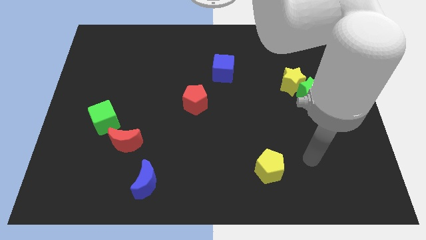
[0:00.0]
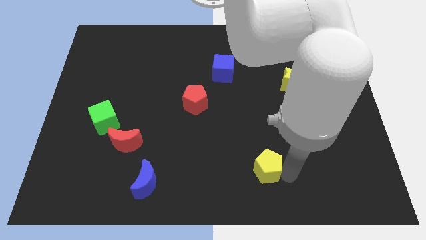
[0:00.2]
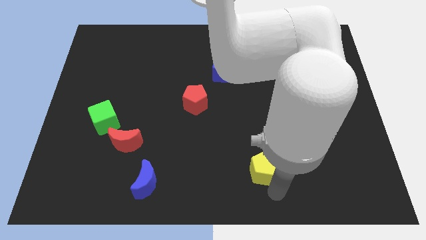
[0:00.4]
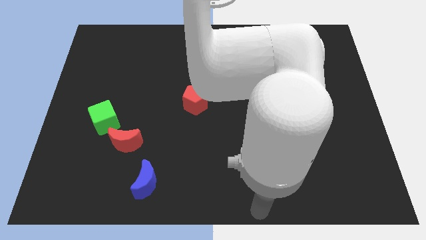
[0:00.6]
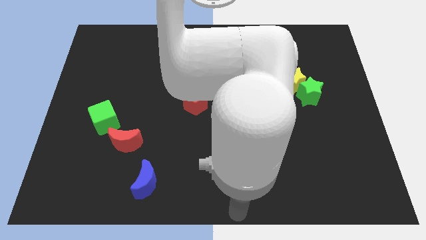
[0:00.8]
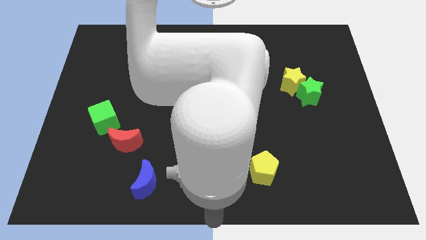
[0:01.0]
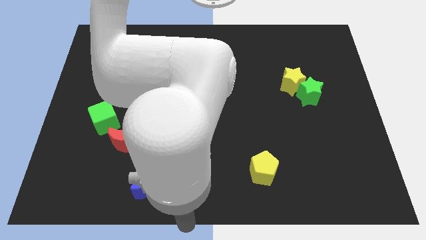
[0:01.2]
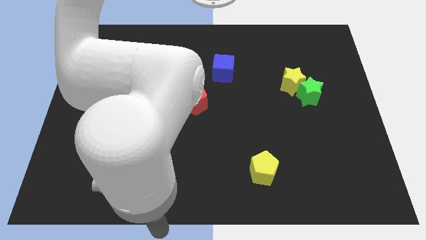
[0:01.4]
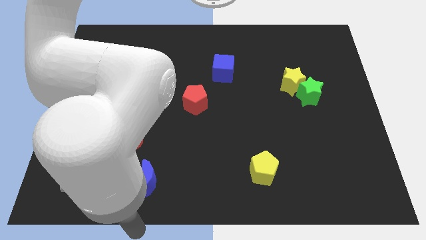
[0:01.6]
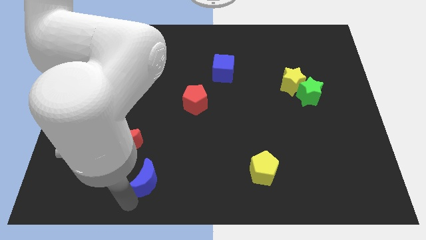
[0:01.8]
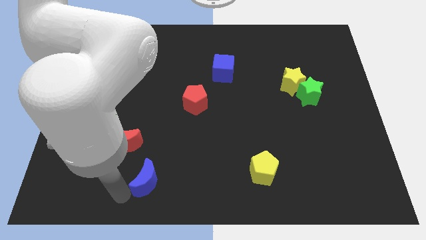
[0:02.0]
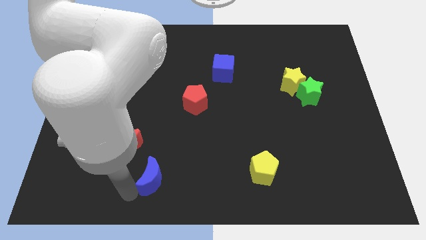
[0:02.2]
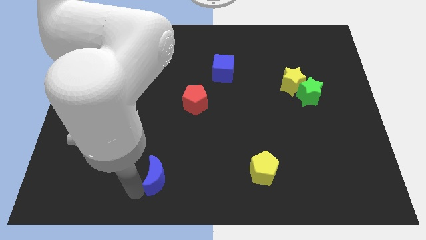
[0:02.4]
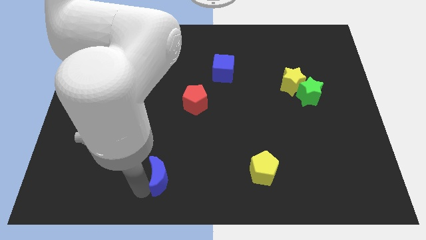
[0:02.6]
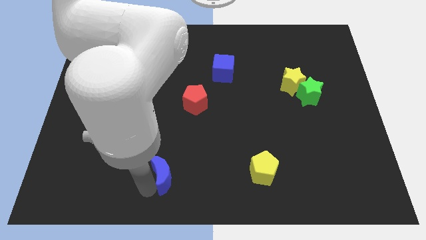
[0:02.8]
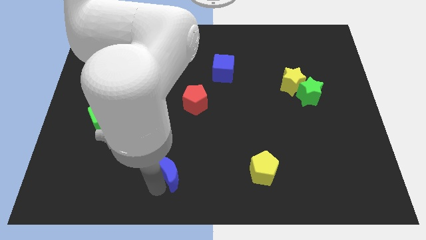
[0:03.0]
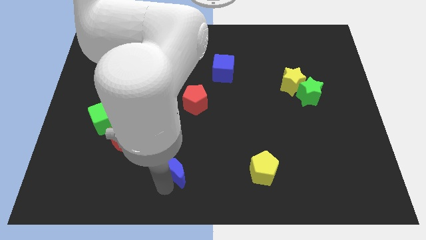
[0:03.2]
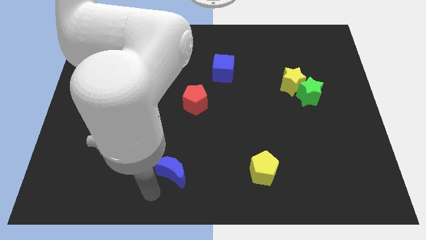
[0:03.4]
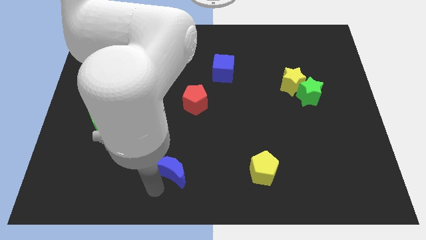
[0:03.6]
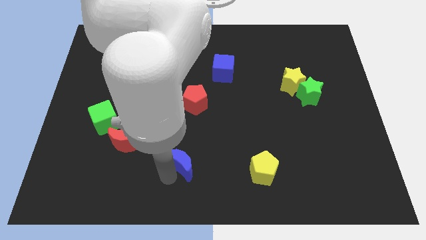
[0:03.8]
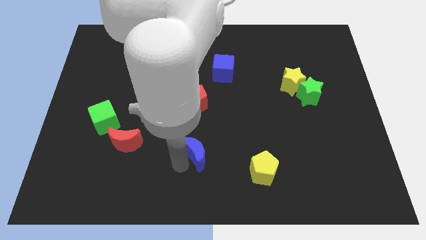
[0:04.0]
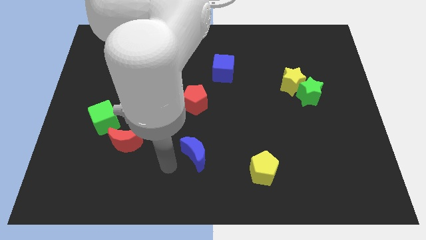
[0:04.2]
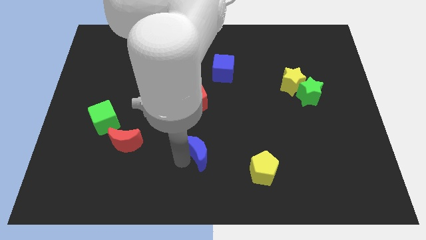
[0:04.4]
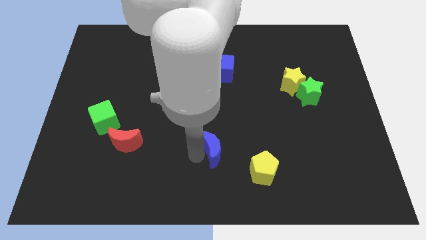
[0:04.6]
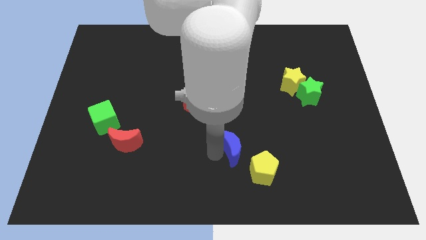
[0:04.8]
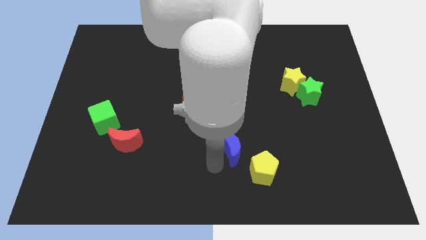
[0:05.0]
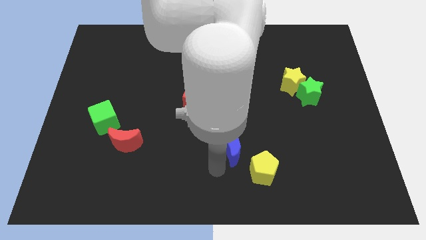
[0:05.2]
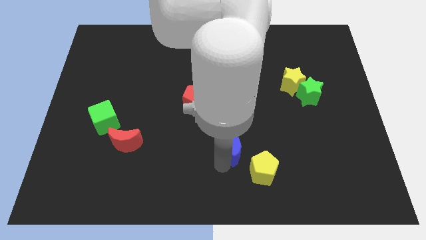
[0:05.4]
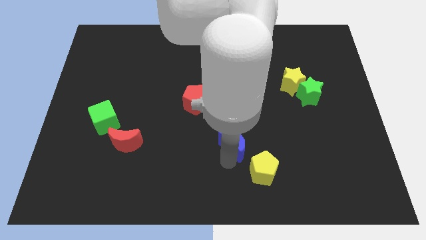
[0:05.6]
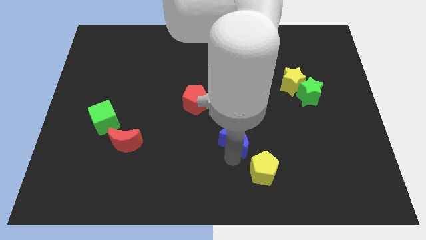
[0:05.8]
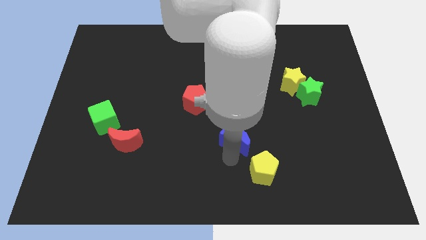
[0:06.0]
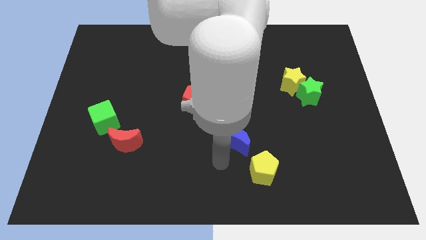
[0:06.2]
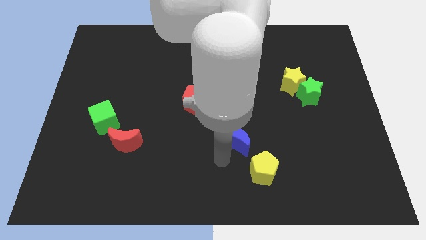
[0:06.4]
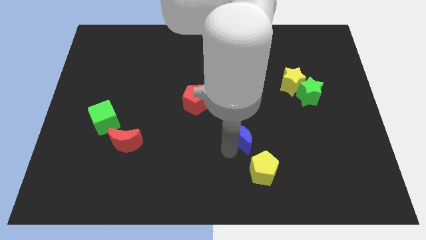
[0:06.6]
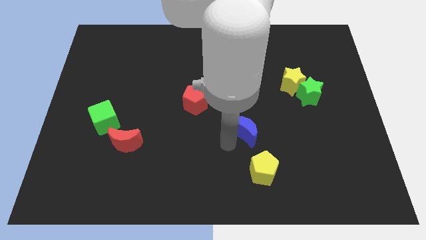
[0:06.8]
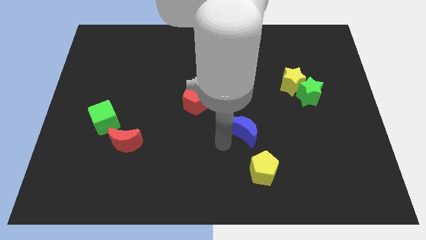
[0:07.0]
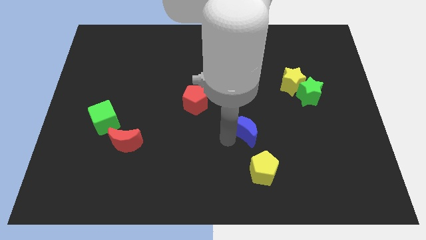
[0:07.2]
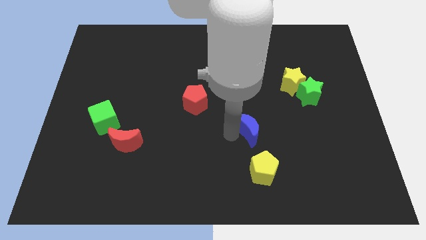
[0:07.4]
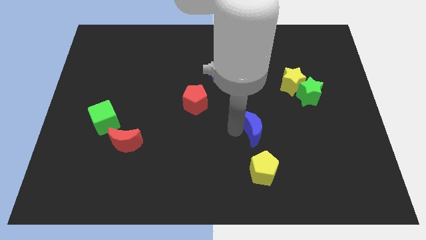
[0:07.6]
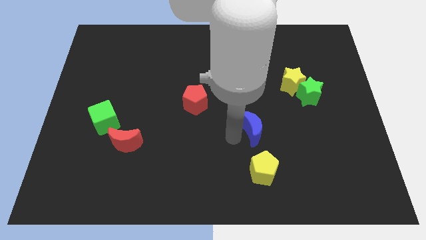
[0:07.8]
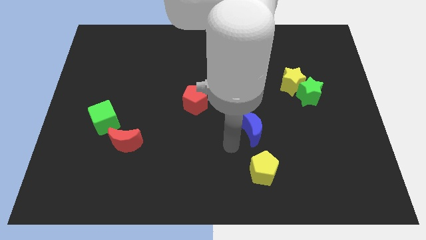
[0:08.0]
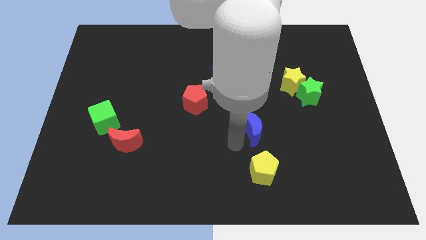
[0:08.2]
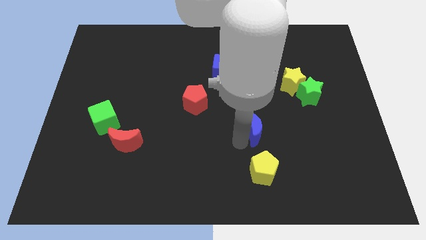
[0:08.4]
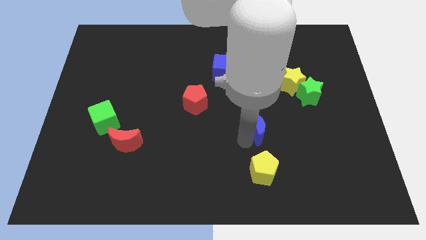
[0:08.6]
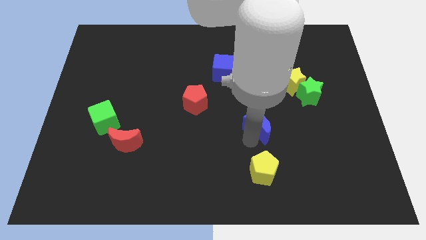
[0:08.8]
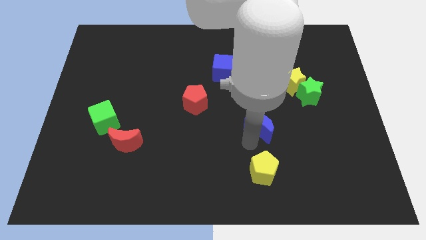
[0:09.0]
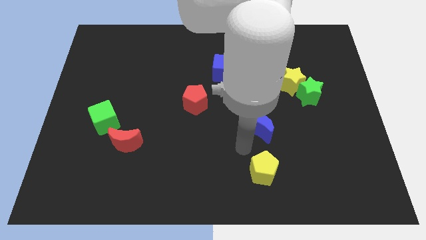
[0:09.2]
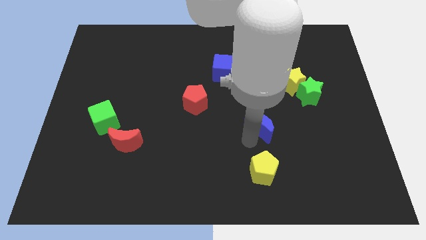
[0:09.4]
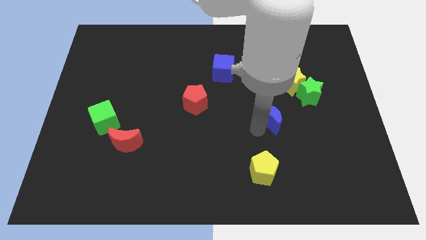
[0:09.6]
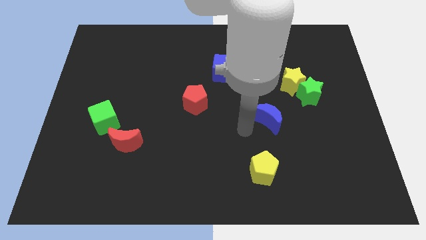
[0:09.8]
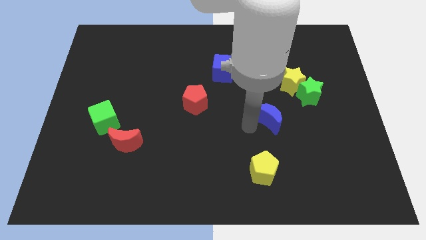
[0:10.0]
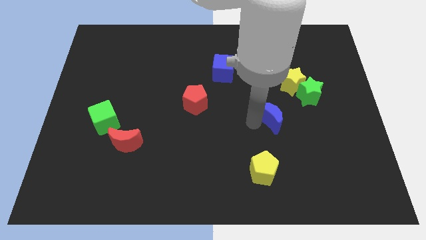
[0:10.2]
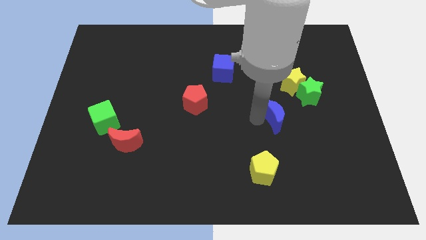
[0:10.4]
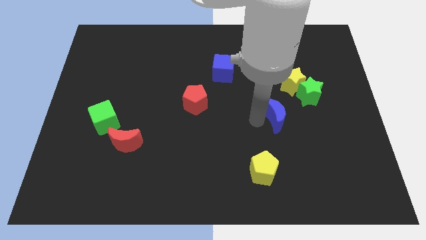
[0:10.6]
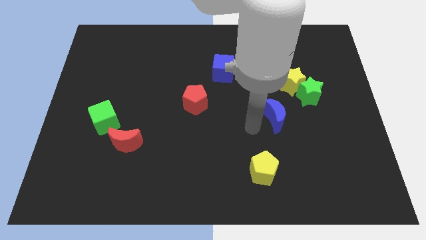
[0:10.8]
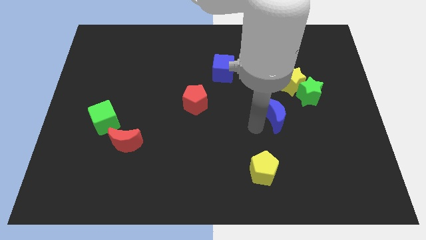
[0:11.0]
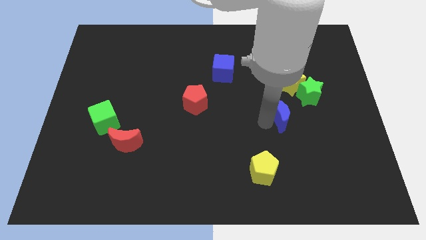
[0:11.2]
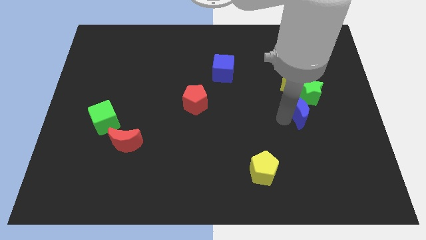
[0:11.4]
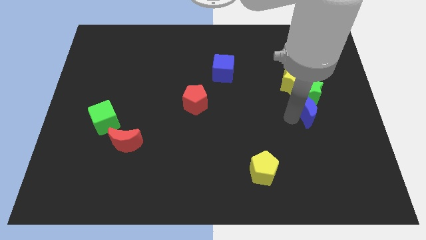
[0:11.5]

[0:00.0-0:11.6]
put the blue moon close to the green star

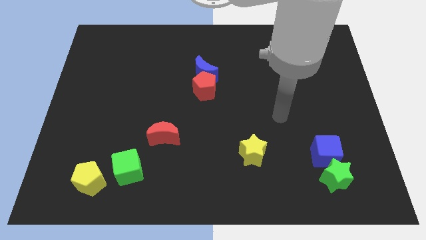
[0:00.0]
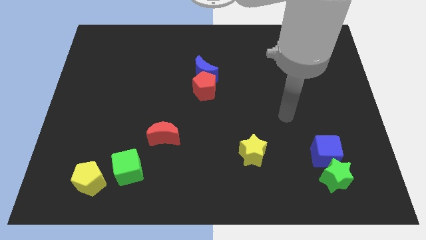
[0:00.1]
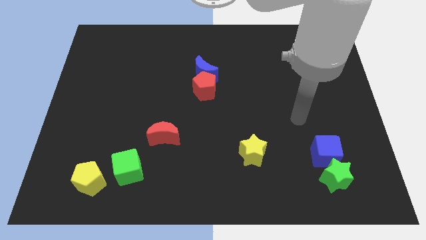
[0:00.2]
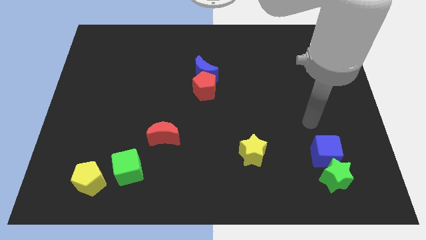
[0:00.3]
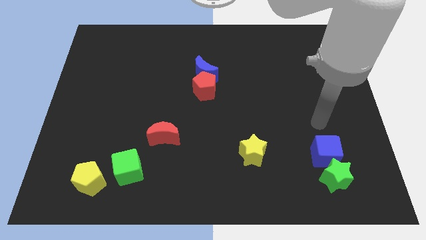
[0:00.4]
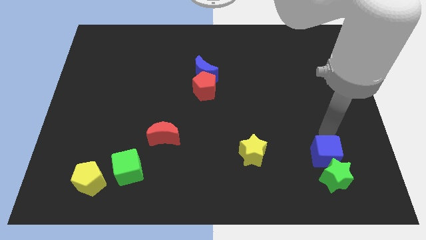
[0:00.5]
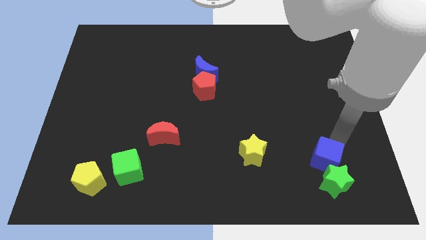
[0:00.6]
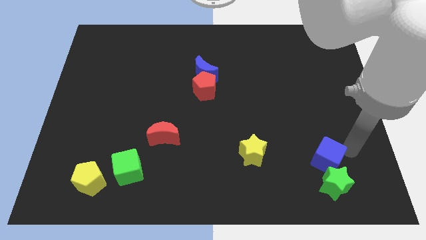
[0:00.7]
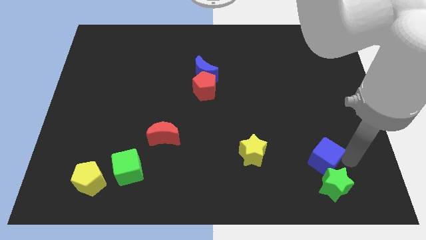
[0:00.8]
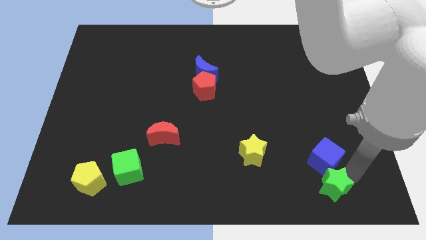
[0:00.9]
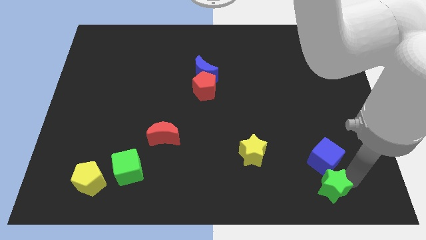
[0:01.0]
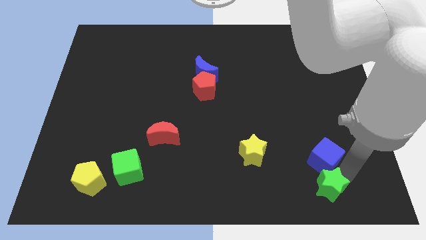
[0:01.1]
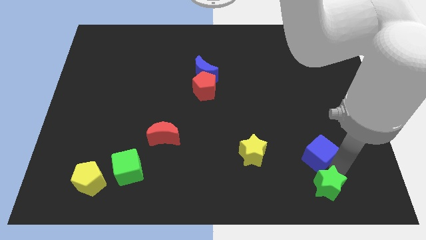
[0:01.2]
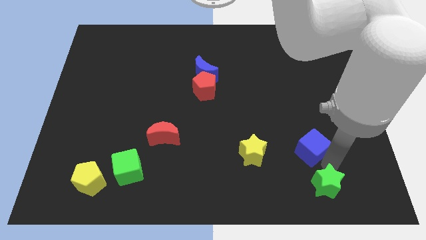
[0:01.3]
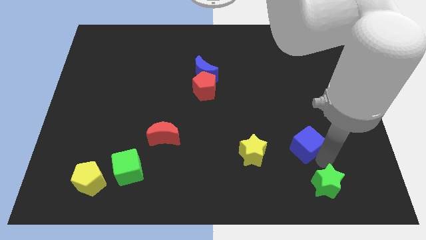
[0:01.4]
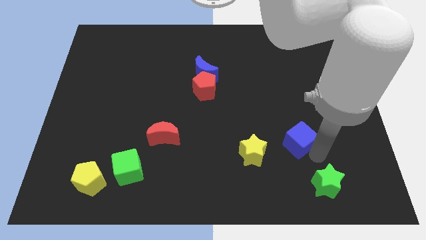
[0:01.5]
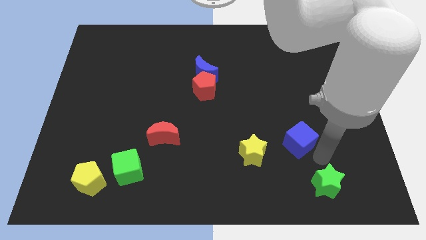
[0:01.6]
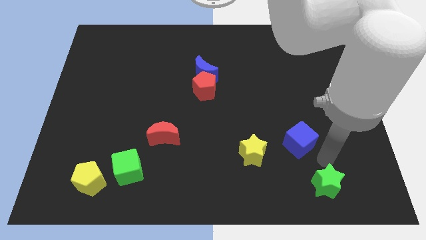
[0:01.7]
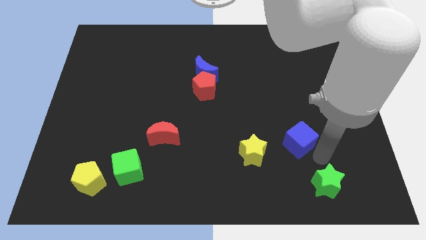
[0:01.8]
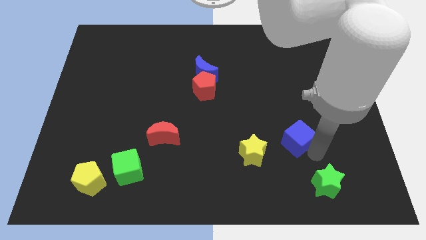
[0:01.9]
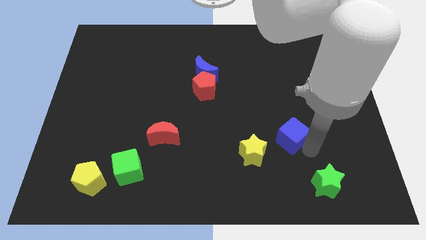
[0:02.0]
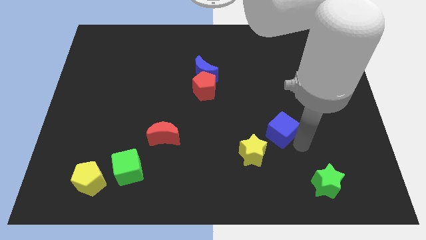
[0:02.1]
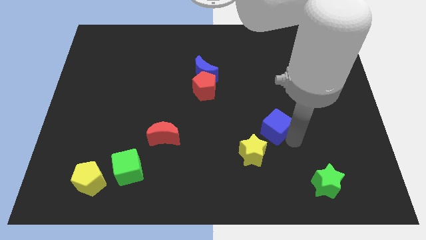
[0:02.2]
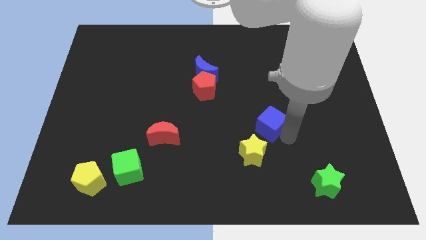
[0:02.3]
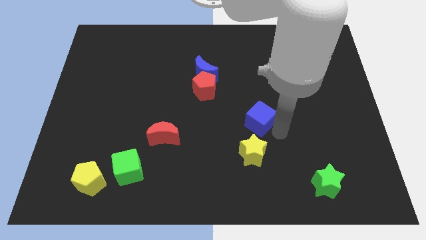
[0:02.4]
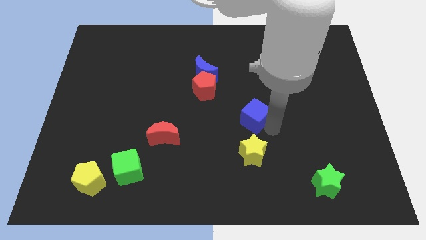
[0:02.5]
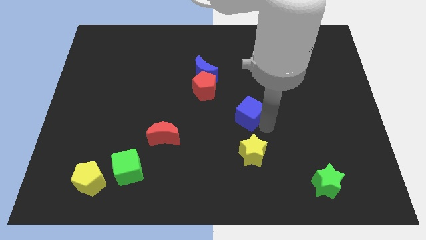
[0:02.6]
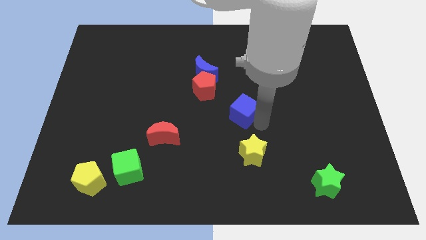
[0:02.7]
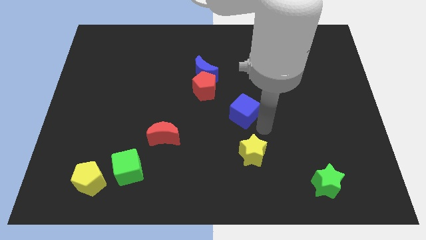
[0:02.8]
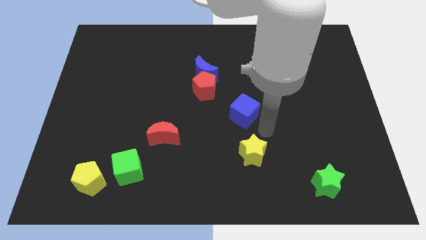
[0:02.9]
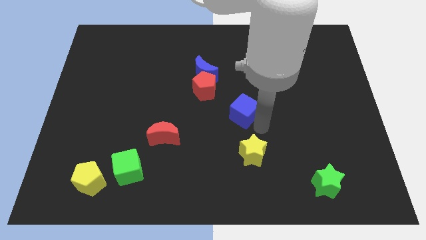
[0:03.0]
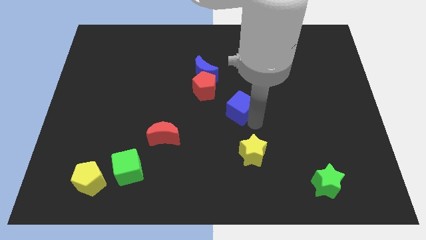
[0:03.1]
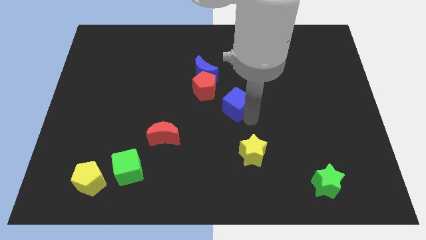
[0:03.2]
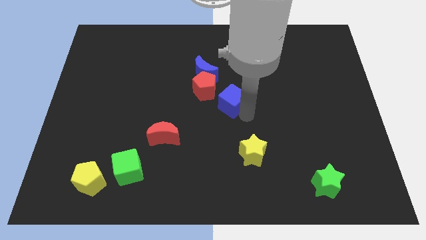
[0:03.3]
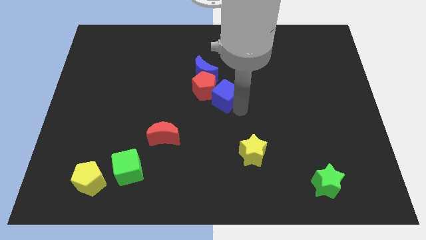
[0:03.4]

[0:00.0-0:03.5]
put the blue cube close to the red pentagon
